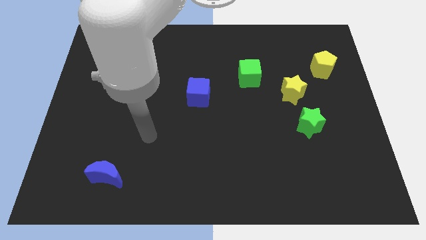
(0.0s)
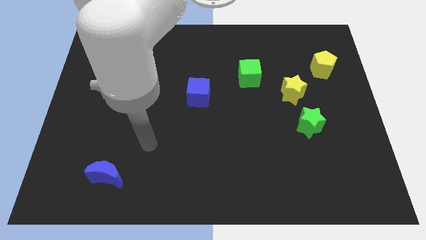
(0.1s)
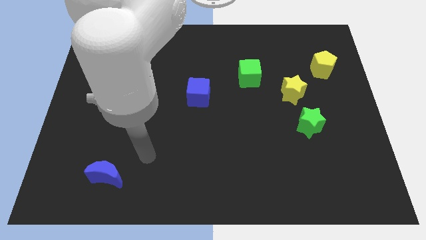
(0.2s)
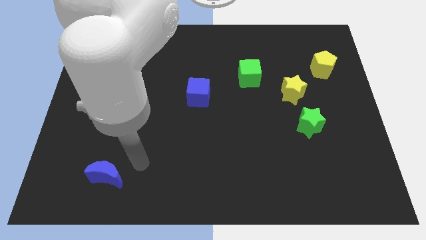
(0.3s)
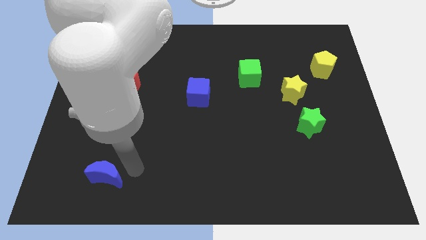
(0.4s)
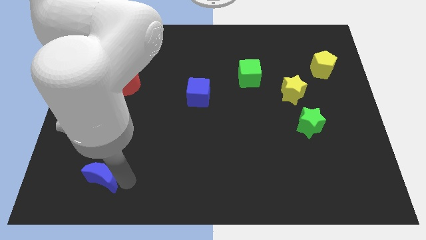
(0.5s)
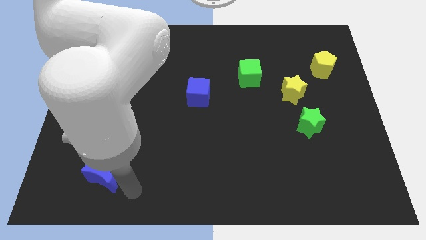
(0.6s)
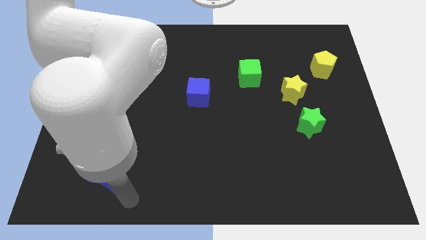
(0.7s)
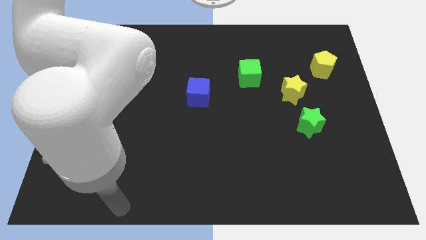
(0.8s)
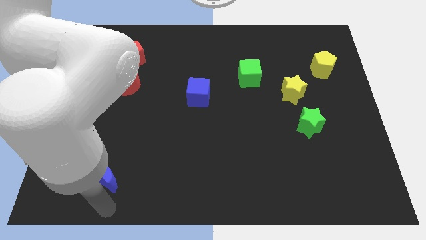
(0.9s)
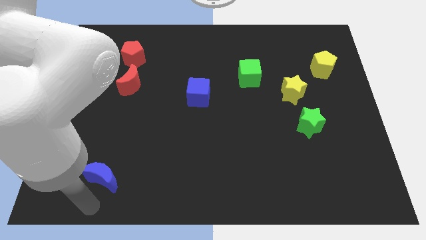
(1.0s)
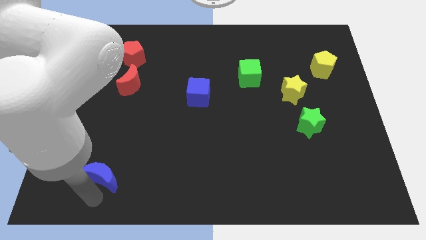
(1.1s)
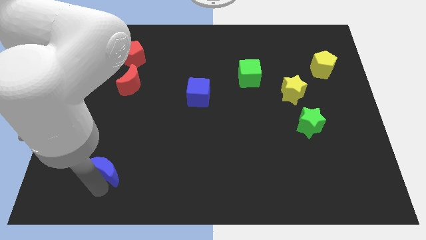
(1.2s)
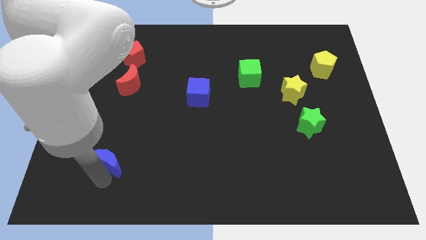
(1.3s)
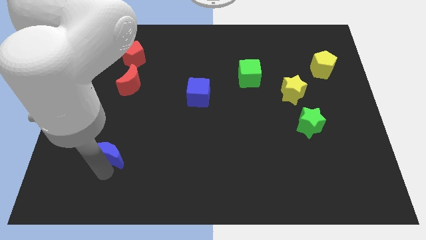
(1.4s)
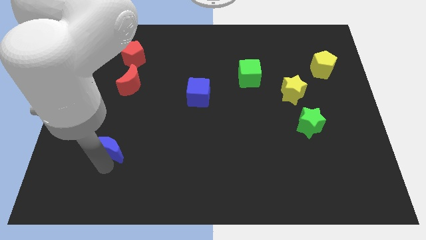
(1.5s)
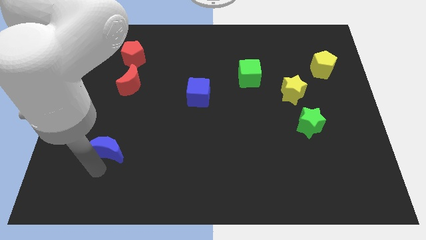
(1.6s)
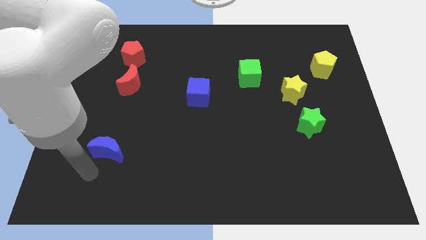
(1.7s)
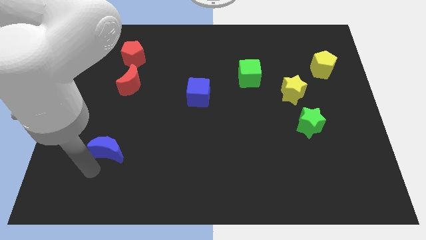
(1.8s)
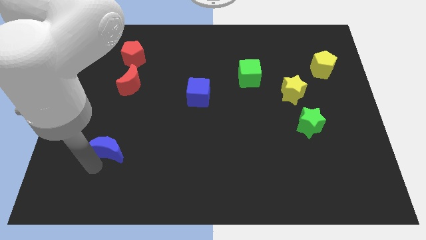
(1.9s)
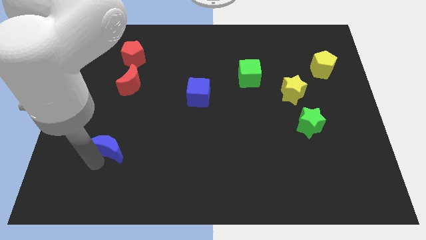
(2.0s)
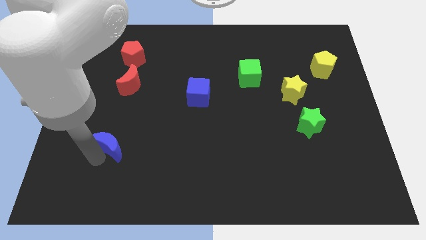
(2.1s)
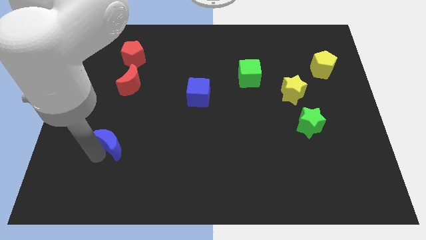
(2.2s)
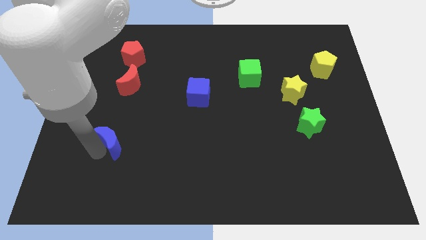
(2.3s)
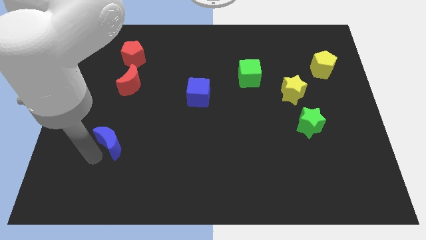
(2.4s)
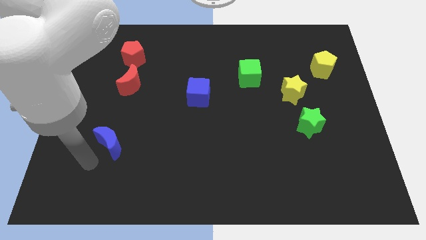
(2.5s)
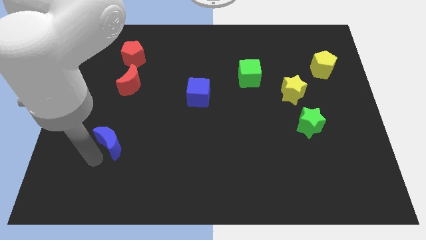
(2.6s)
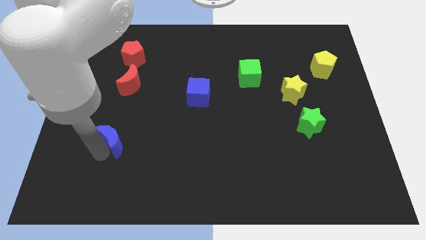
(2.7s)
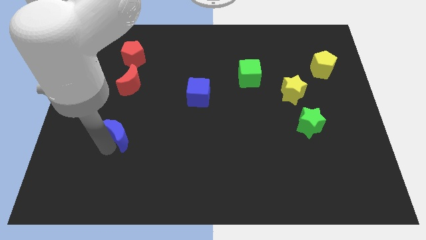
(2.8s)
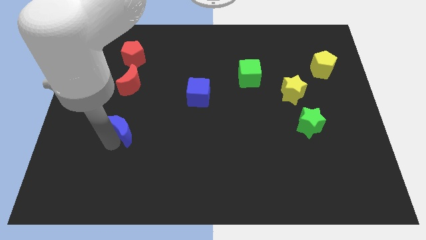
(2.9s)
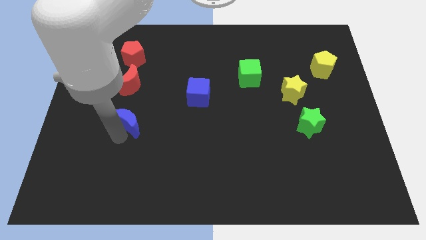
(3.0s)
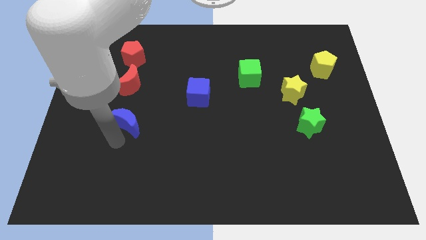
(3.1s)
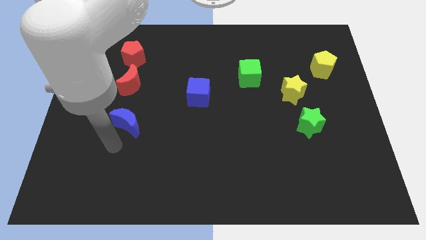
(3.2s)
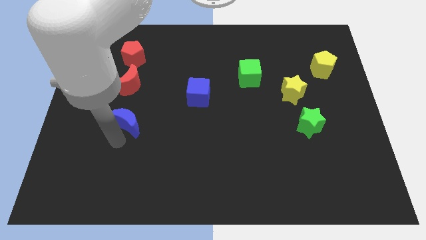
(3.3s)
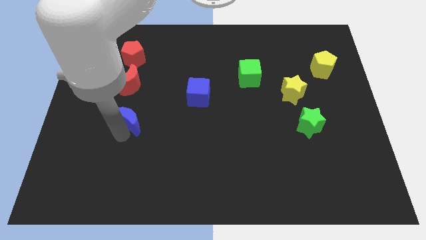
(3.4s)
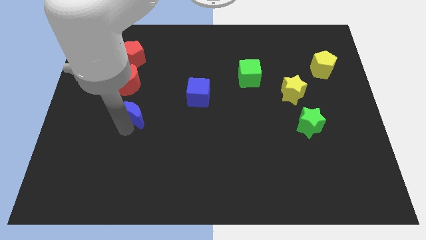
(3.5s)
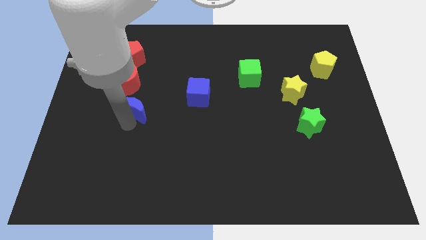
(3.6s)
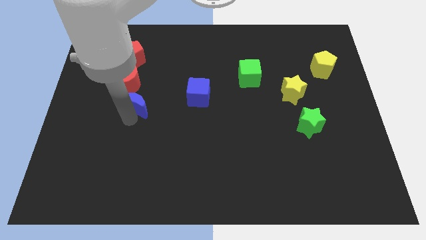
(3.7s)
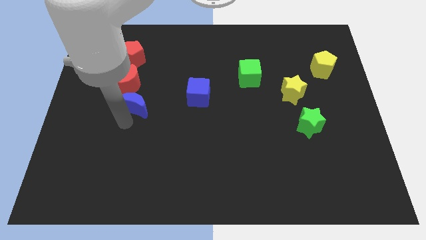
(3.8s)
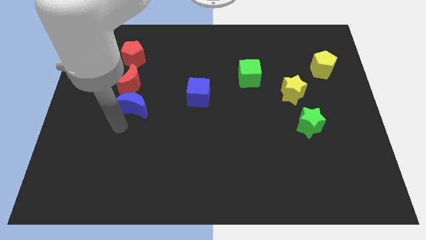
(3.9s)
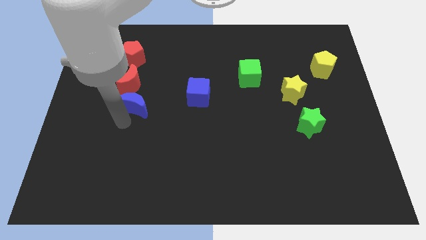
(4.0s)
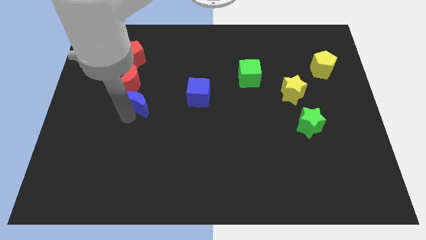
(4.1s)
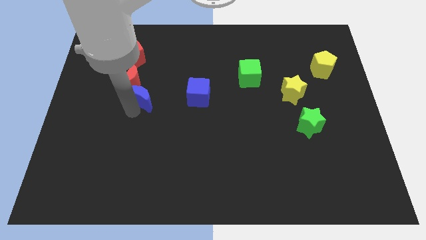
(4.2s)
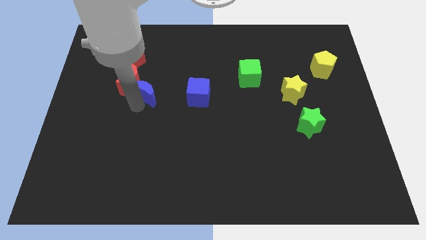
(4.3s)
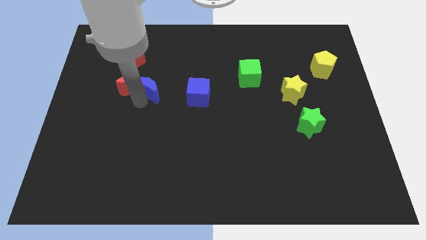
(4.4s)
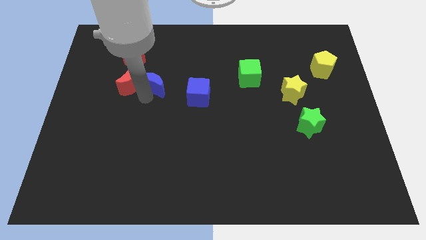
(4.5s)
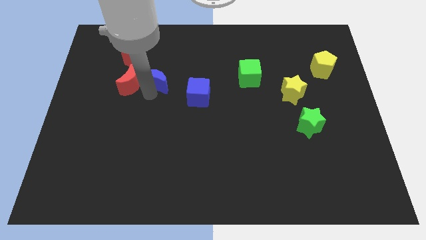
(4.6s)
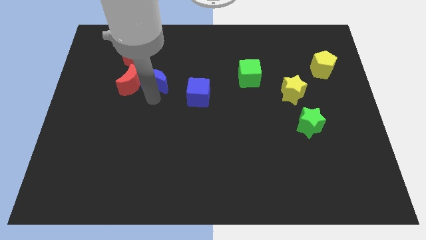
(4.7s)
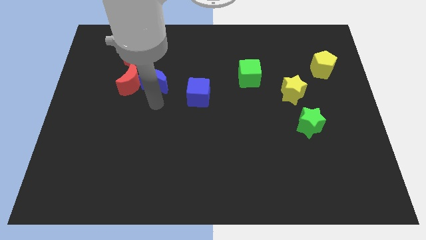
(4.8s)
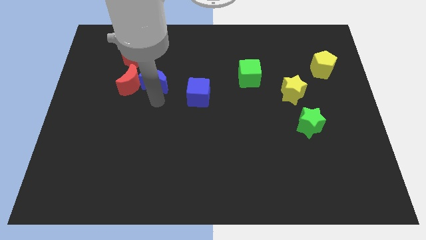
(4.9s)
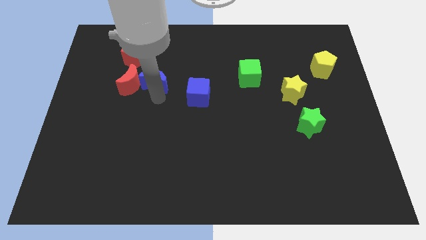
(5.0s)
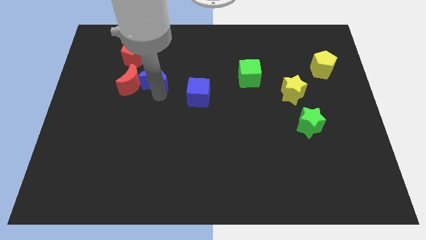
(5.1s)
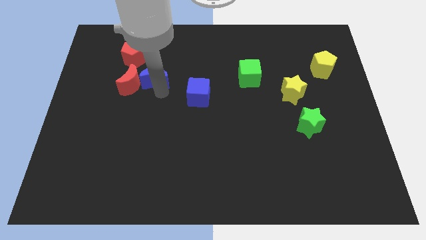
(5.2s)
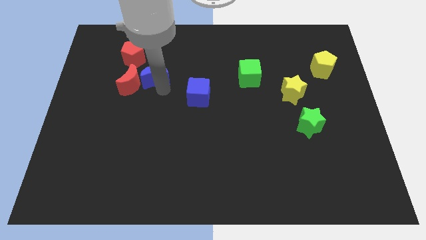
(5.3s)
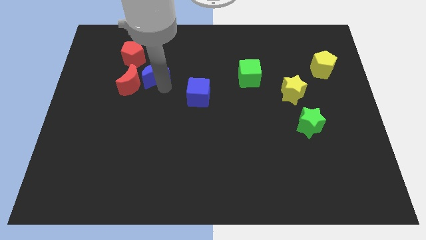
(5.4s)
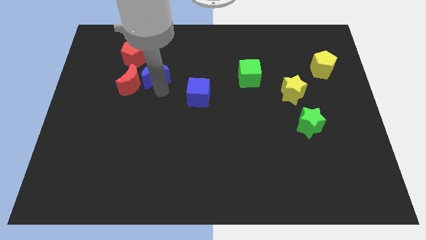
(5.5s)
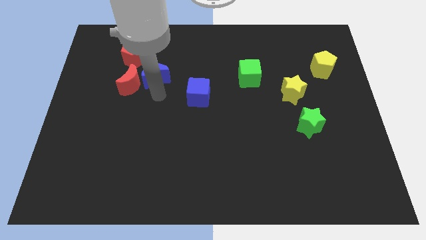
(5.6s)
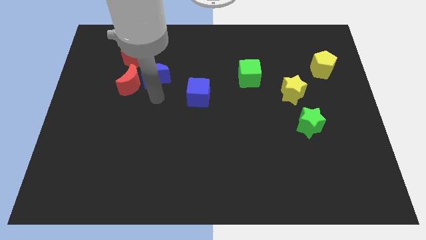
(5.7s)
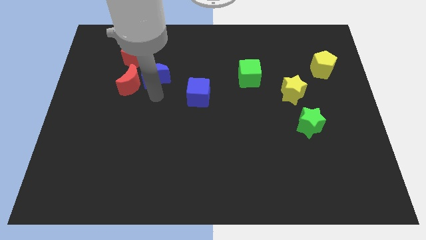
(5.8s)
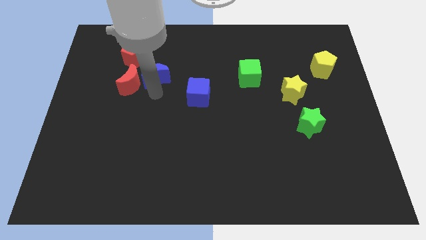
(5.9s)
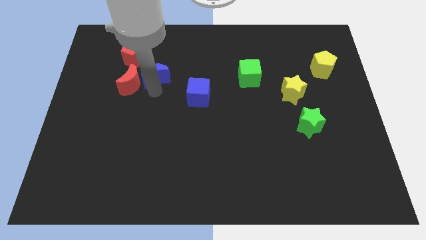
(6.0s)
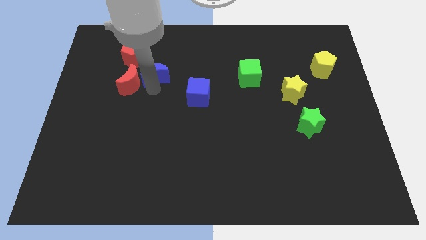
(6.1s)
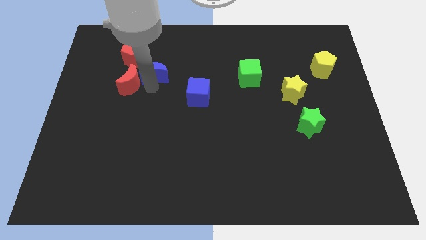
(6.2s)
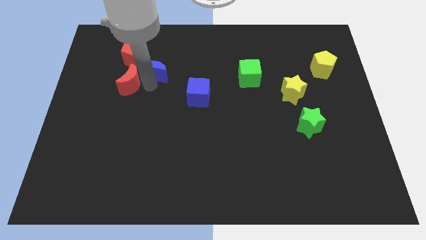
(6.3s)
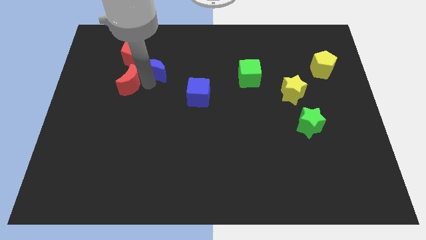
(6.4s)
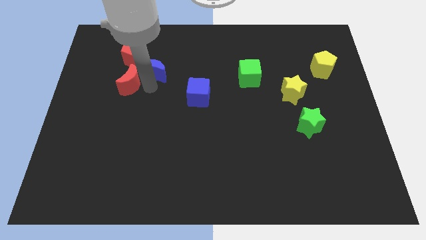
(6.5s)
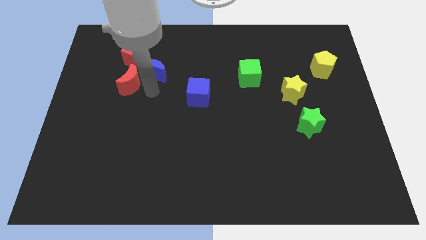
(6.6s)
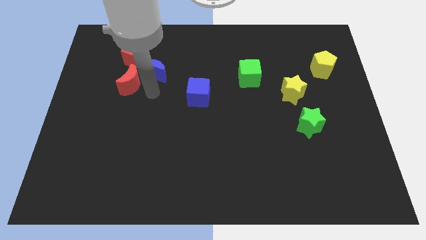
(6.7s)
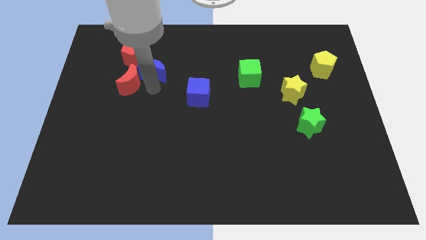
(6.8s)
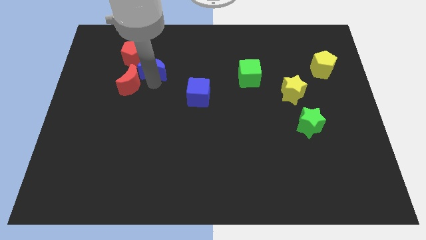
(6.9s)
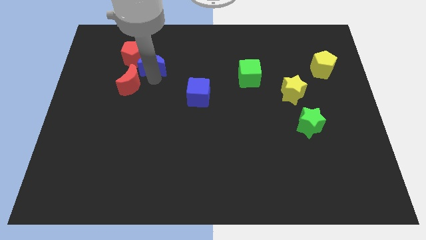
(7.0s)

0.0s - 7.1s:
move the blue moon to the top side of the red moon
